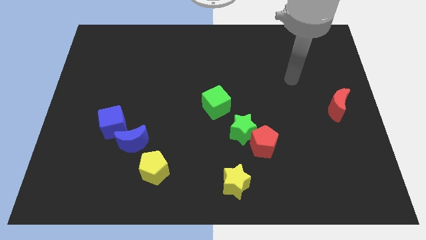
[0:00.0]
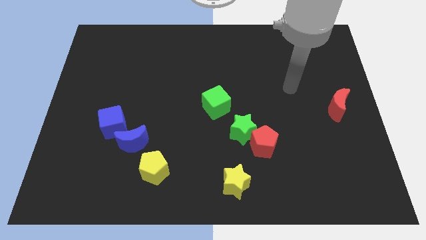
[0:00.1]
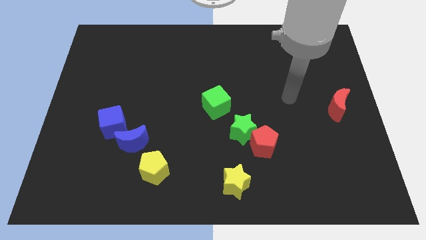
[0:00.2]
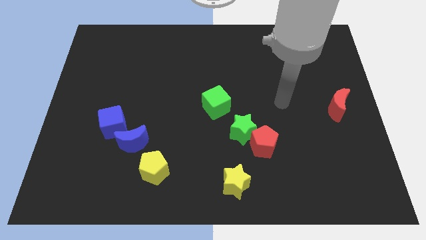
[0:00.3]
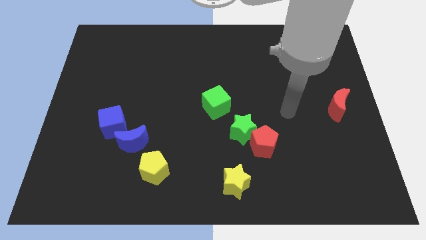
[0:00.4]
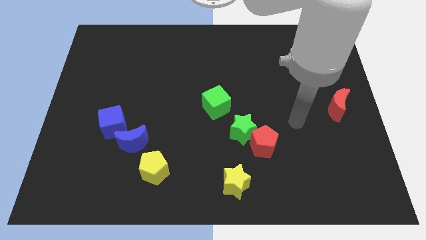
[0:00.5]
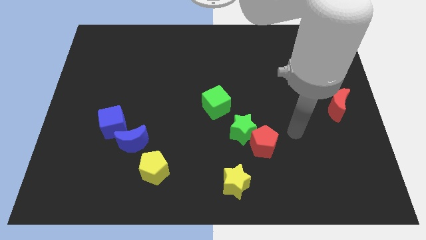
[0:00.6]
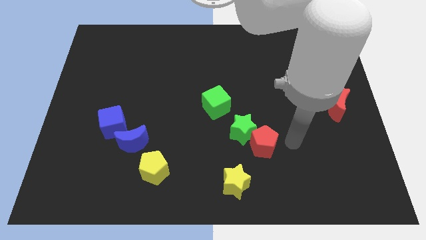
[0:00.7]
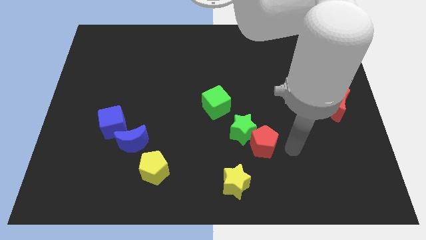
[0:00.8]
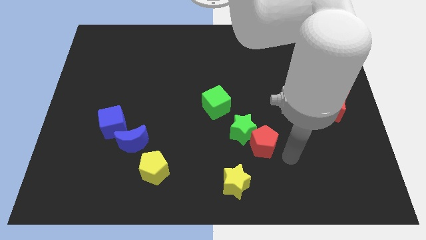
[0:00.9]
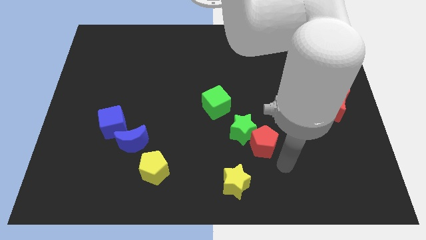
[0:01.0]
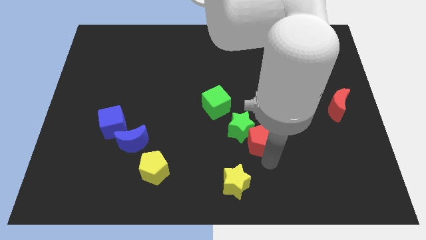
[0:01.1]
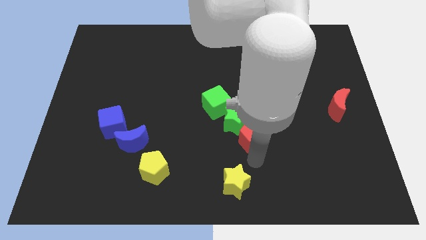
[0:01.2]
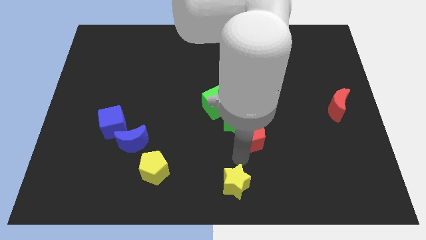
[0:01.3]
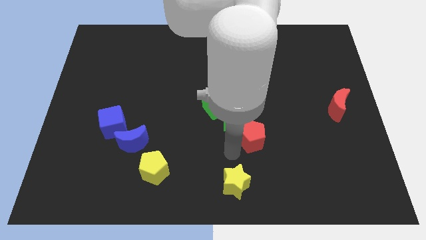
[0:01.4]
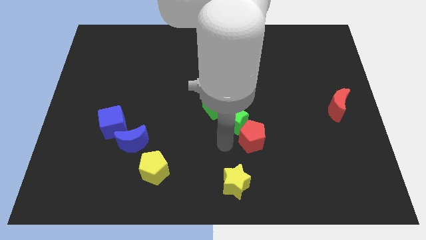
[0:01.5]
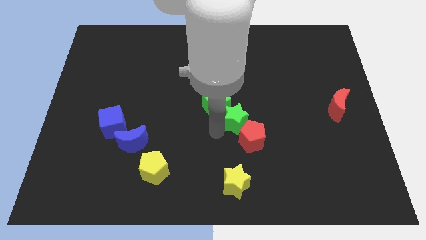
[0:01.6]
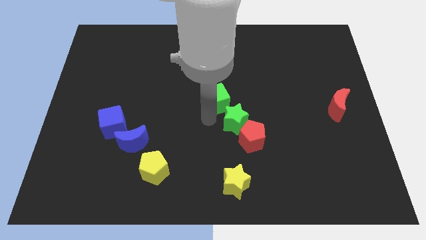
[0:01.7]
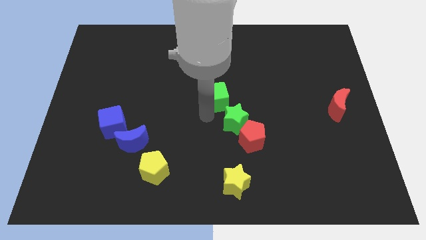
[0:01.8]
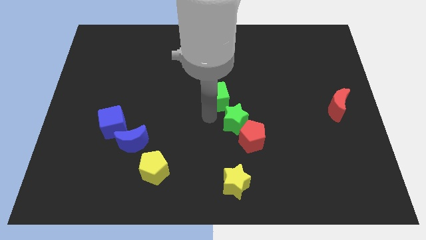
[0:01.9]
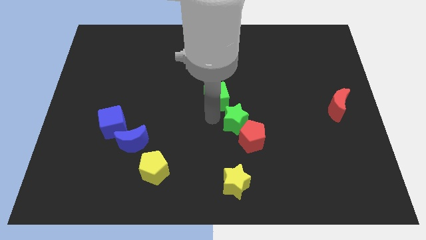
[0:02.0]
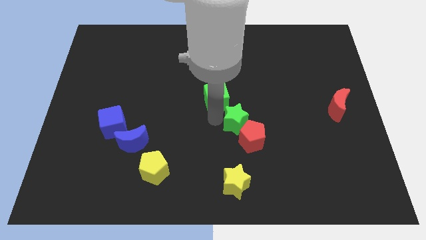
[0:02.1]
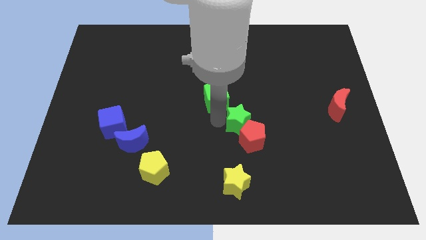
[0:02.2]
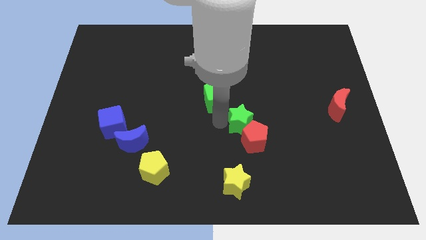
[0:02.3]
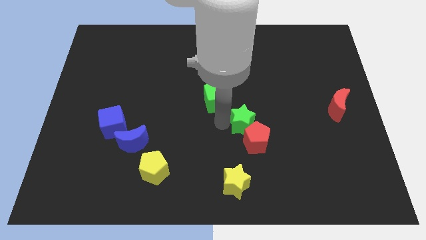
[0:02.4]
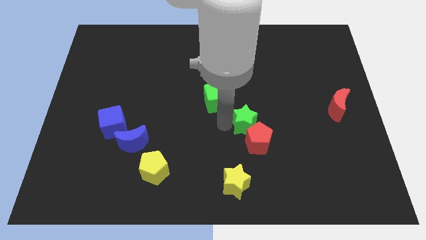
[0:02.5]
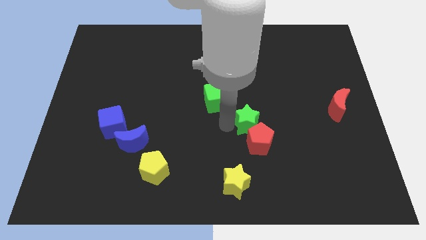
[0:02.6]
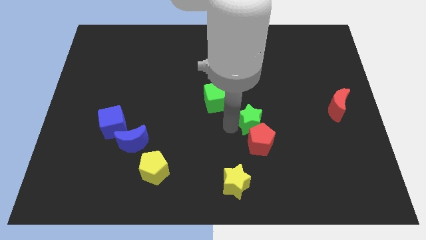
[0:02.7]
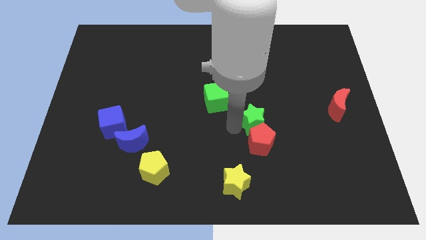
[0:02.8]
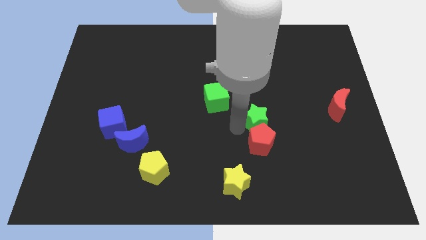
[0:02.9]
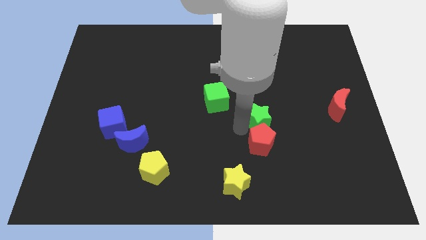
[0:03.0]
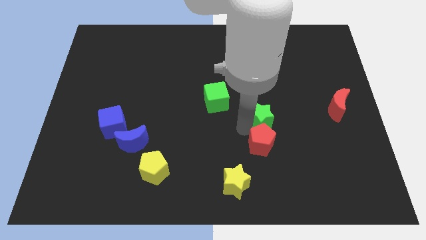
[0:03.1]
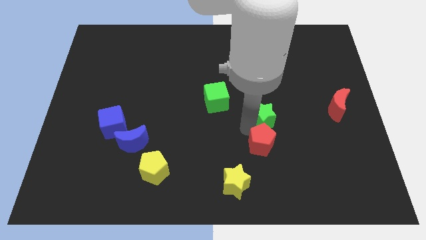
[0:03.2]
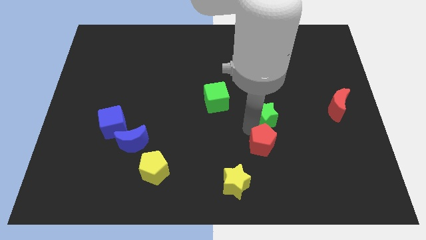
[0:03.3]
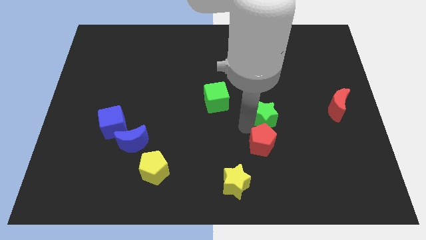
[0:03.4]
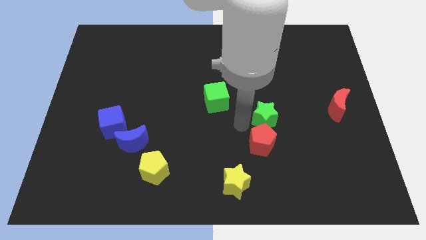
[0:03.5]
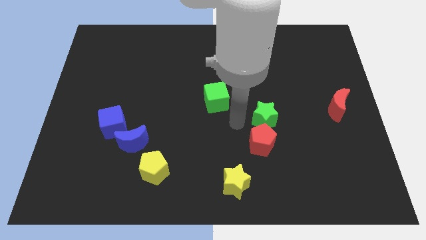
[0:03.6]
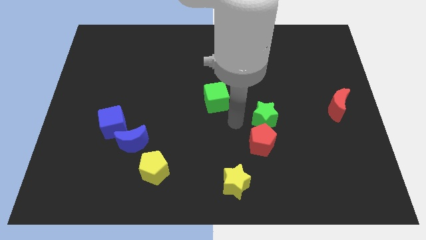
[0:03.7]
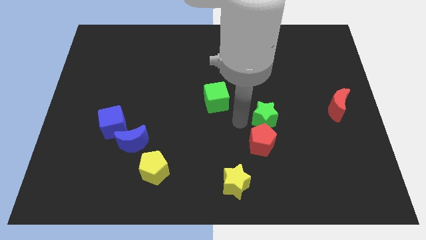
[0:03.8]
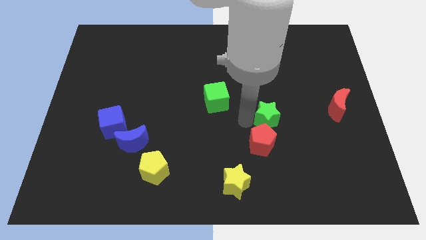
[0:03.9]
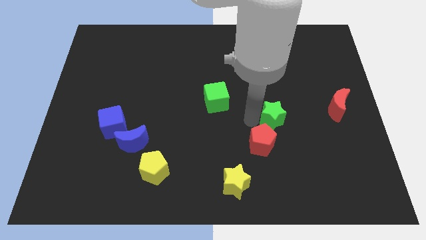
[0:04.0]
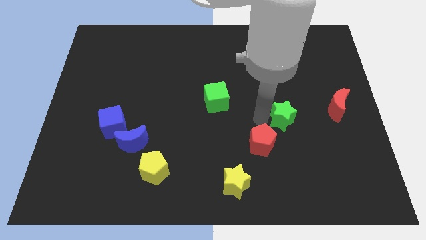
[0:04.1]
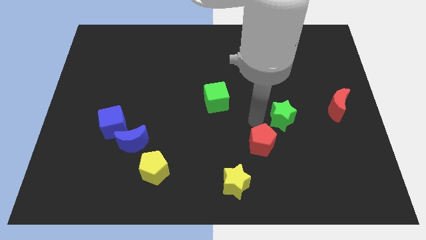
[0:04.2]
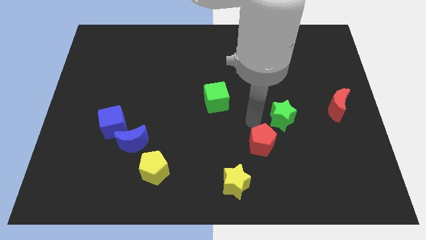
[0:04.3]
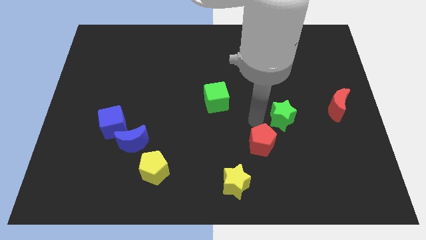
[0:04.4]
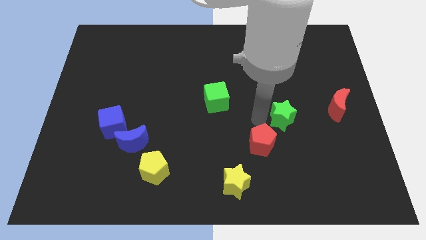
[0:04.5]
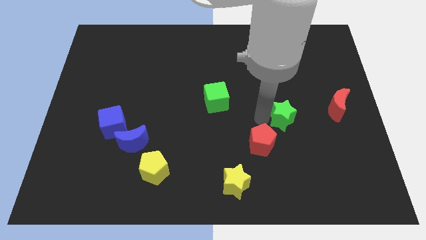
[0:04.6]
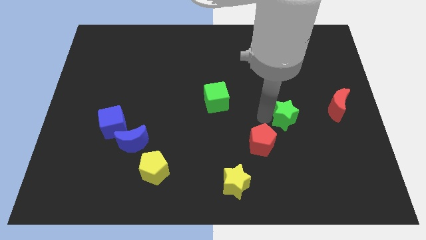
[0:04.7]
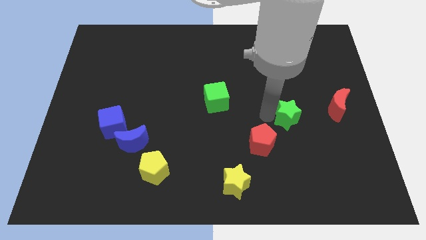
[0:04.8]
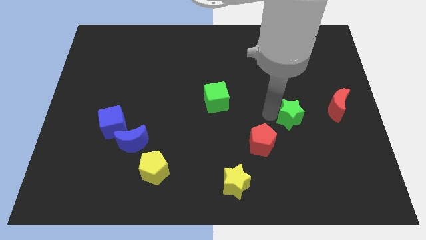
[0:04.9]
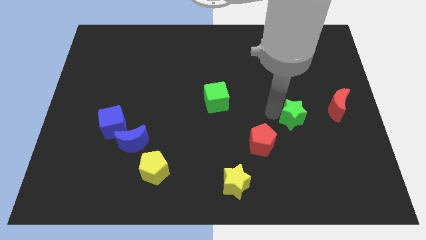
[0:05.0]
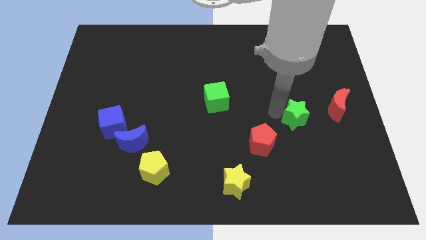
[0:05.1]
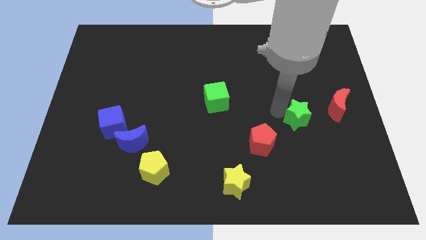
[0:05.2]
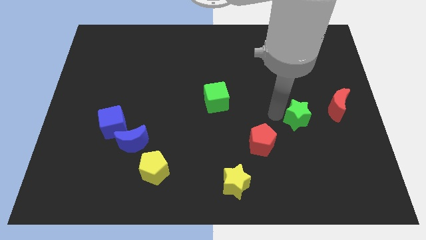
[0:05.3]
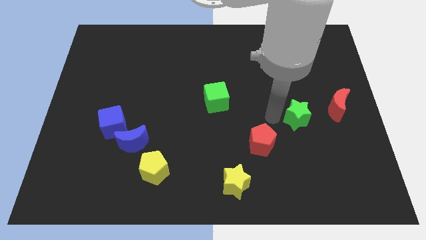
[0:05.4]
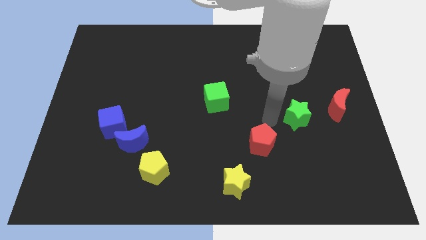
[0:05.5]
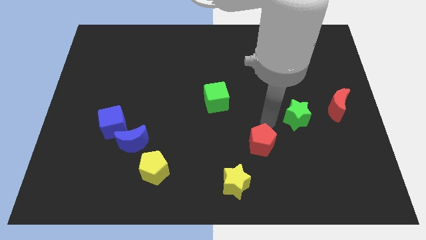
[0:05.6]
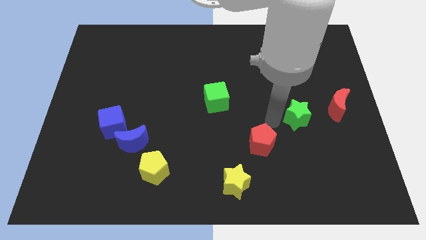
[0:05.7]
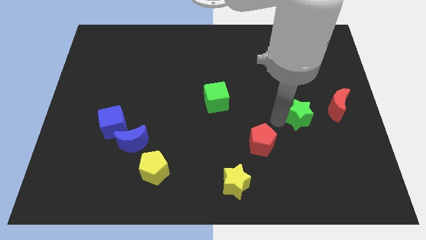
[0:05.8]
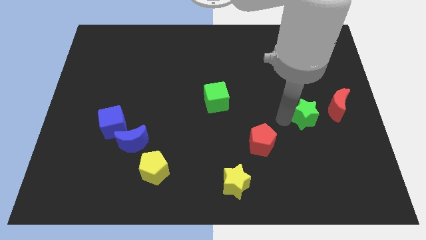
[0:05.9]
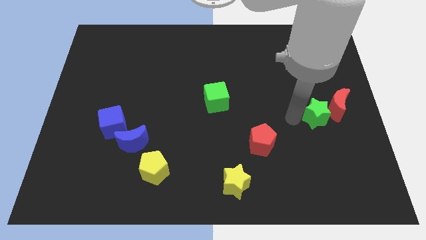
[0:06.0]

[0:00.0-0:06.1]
put the green star close to the red moon

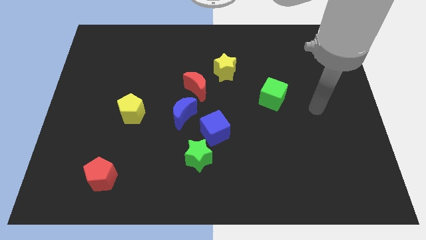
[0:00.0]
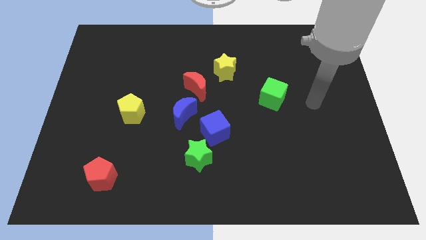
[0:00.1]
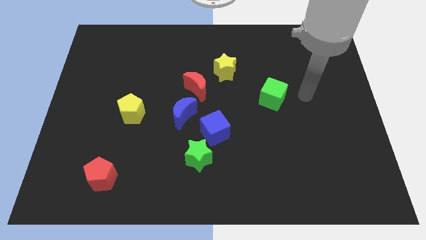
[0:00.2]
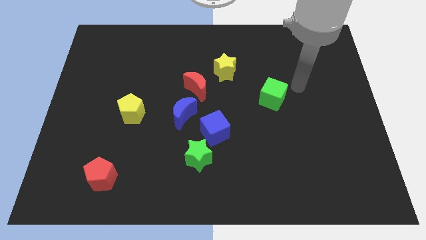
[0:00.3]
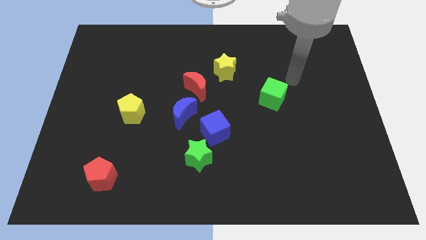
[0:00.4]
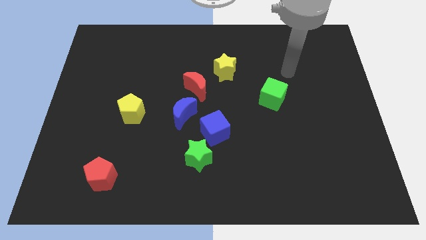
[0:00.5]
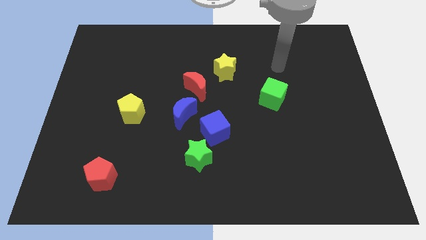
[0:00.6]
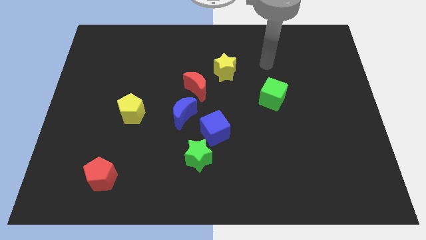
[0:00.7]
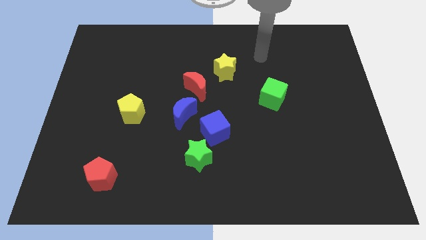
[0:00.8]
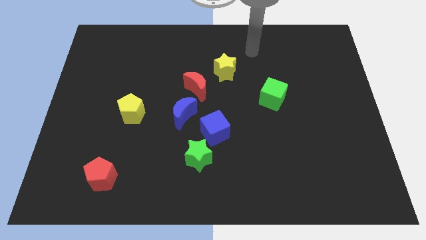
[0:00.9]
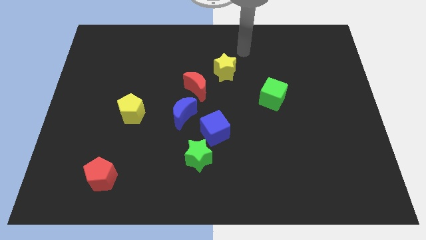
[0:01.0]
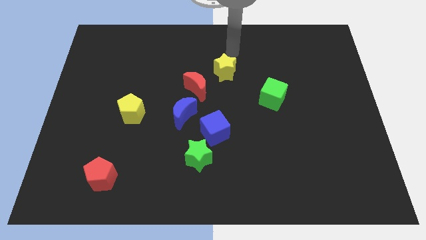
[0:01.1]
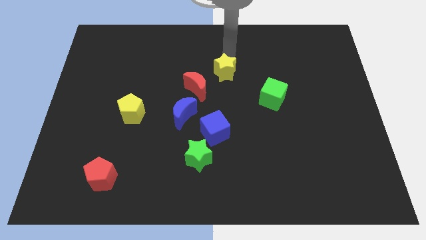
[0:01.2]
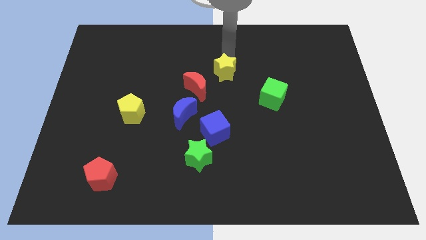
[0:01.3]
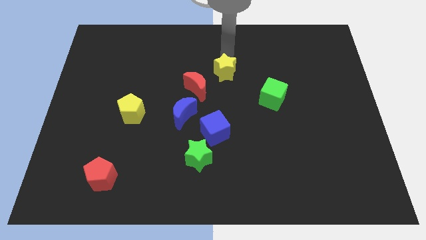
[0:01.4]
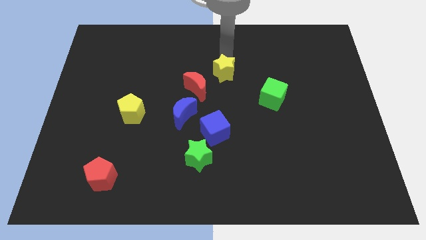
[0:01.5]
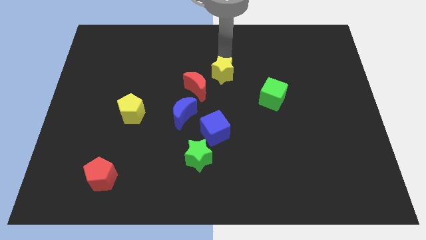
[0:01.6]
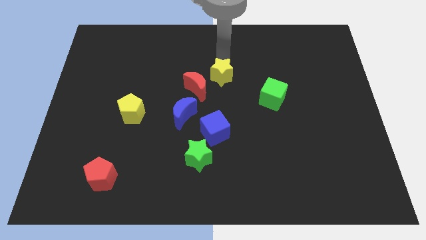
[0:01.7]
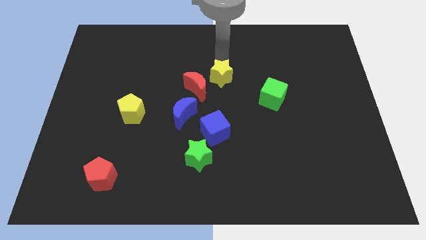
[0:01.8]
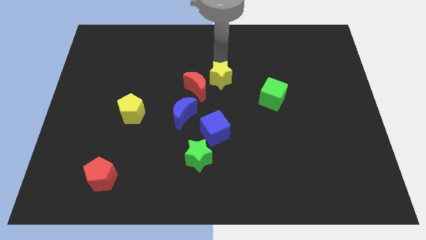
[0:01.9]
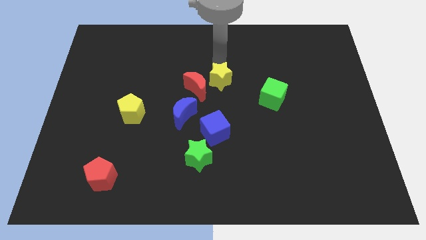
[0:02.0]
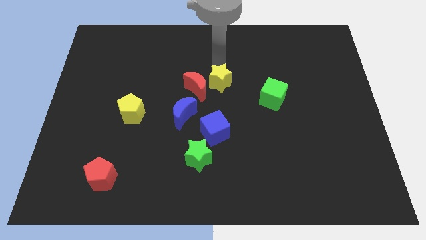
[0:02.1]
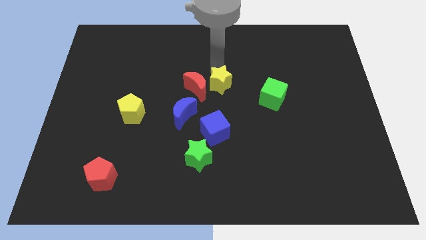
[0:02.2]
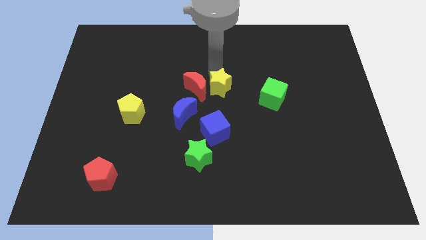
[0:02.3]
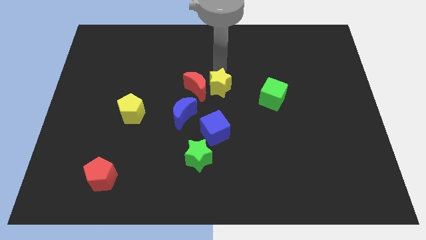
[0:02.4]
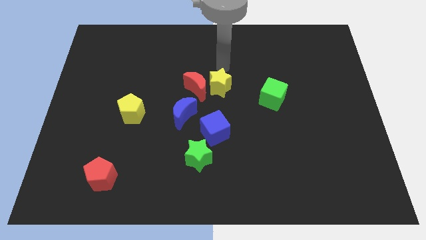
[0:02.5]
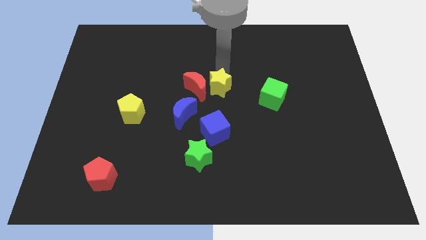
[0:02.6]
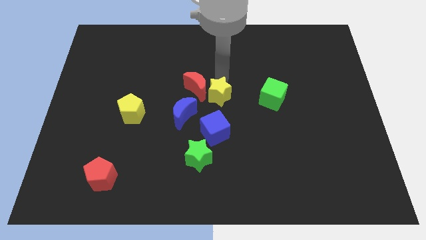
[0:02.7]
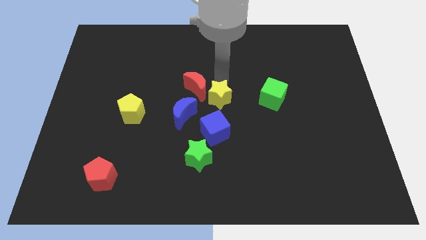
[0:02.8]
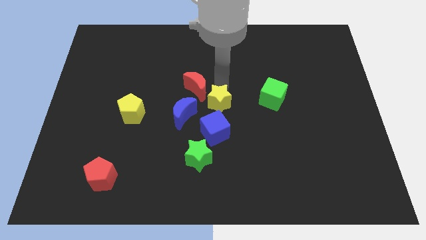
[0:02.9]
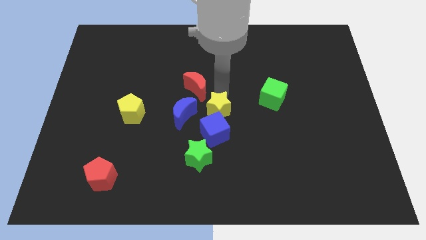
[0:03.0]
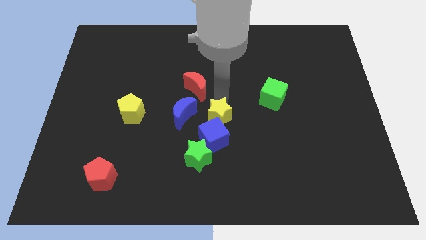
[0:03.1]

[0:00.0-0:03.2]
put the yellow star close to the blue cube
